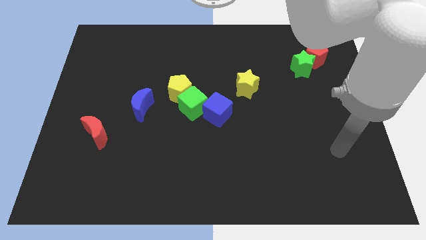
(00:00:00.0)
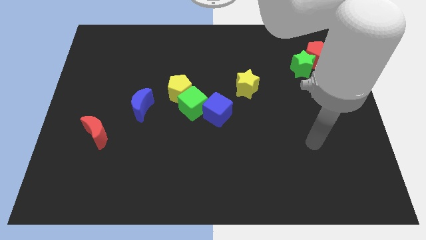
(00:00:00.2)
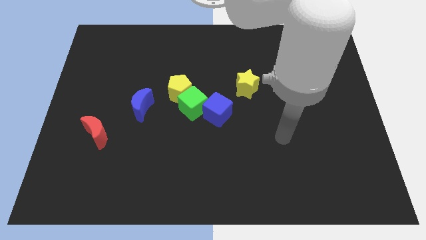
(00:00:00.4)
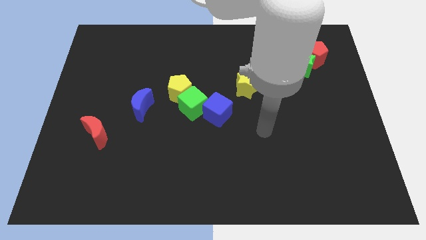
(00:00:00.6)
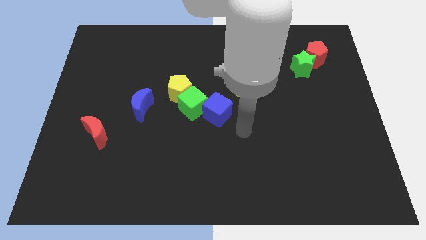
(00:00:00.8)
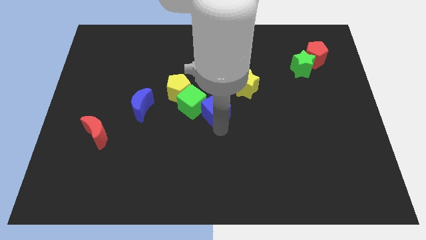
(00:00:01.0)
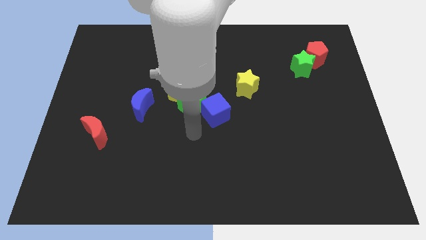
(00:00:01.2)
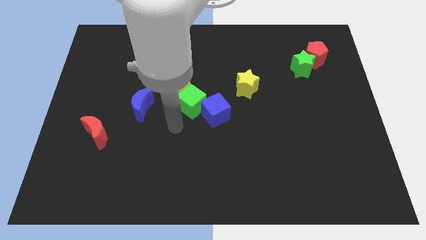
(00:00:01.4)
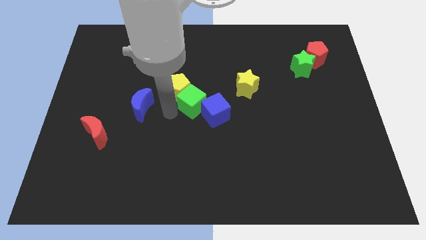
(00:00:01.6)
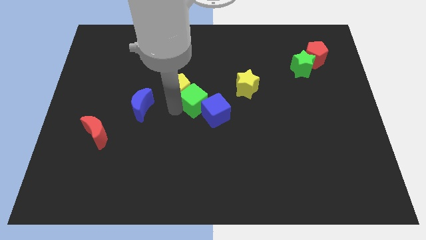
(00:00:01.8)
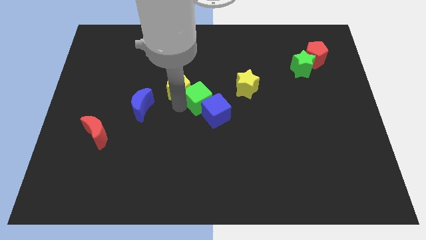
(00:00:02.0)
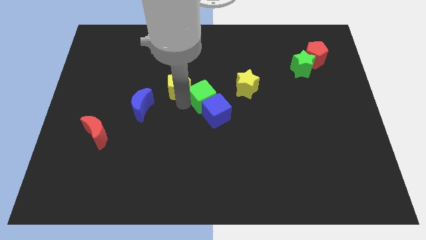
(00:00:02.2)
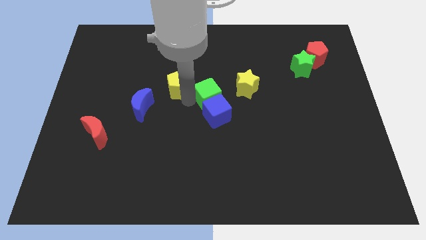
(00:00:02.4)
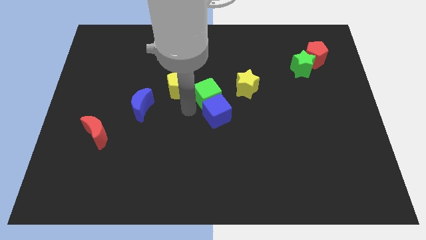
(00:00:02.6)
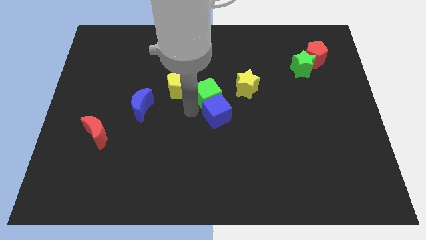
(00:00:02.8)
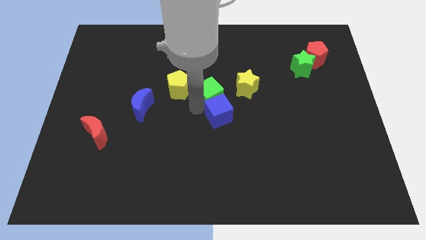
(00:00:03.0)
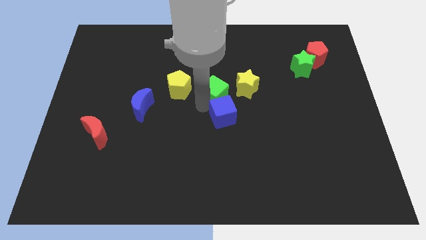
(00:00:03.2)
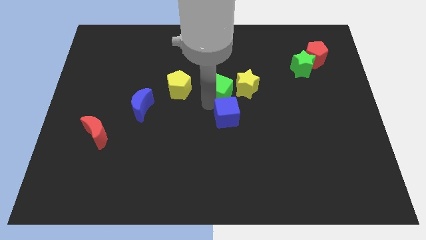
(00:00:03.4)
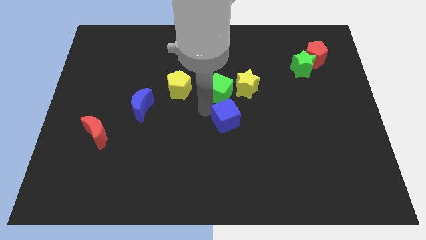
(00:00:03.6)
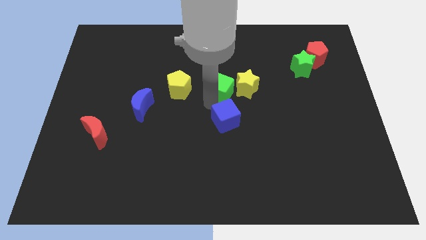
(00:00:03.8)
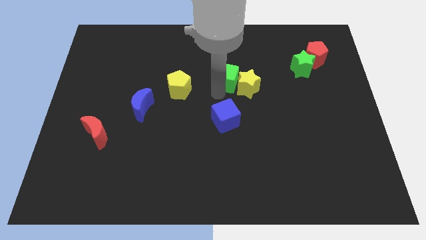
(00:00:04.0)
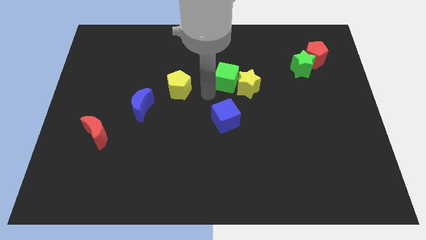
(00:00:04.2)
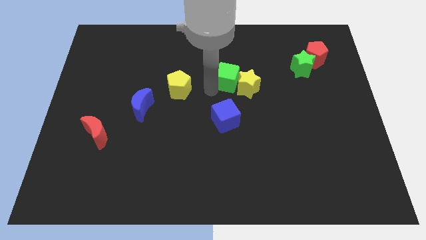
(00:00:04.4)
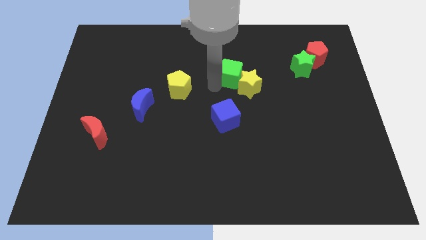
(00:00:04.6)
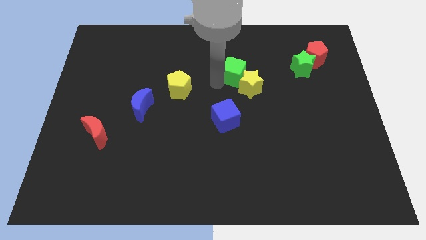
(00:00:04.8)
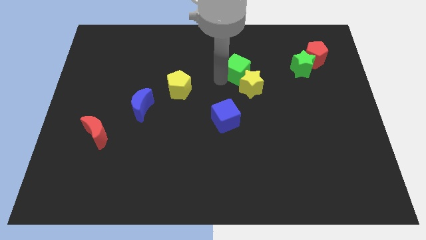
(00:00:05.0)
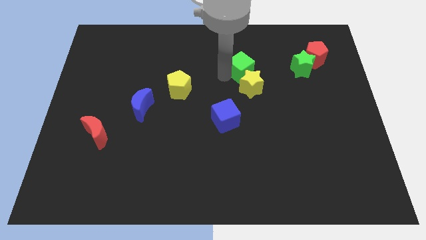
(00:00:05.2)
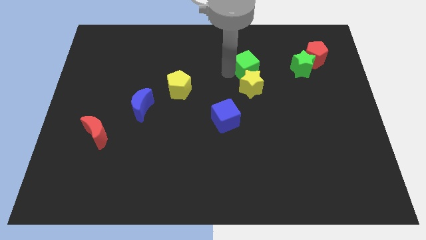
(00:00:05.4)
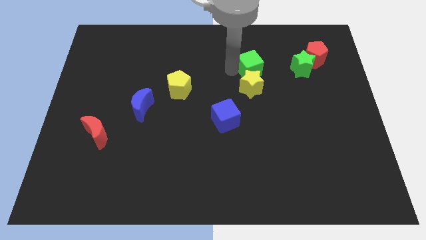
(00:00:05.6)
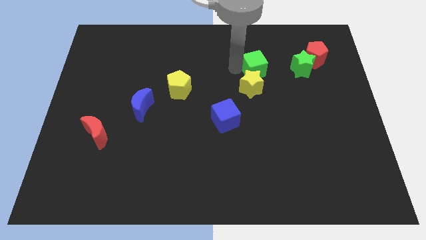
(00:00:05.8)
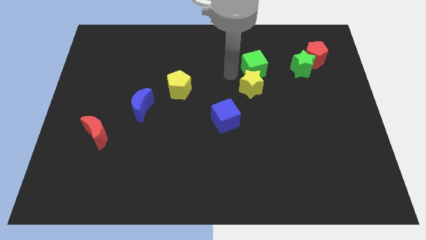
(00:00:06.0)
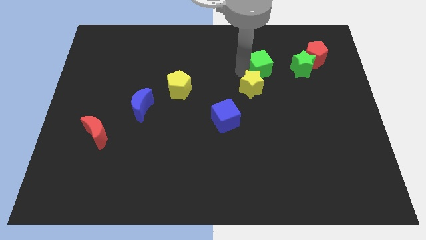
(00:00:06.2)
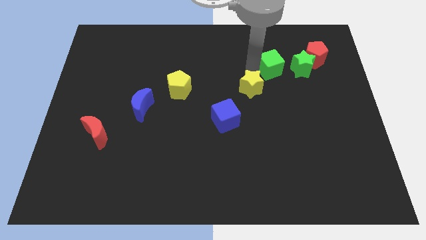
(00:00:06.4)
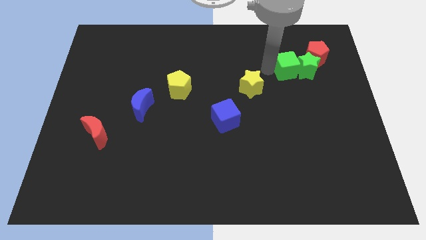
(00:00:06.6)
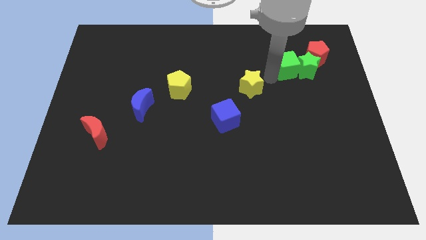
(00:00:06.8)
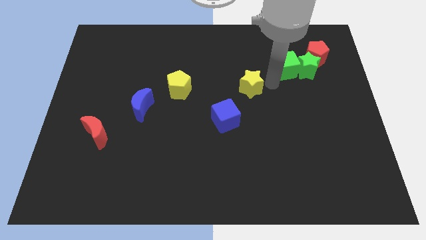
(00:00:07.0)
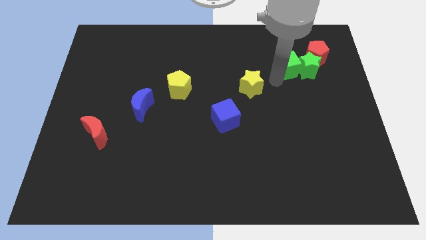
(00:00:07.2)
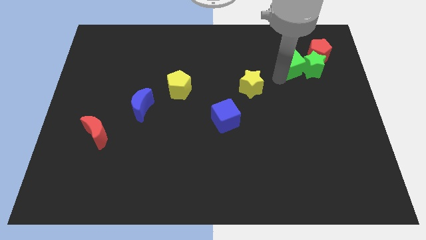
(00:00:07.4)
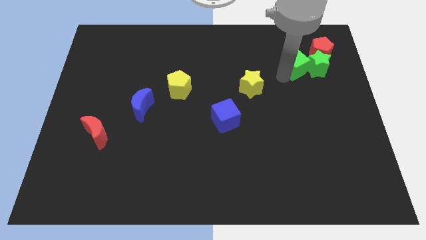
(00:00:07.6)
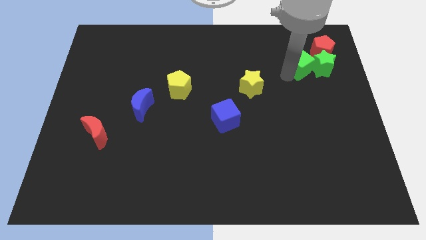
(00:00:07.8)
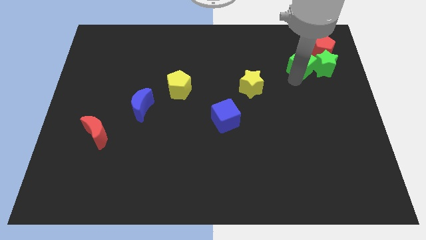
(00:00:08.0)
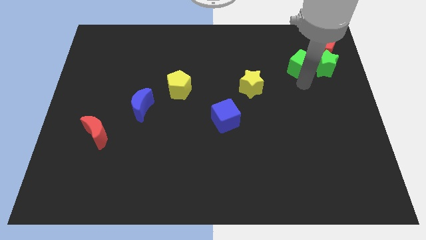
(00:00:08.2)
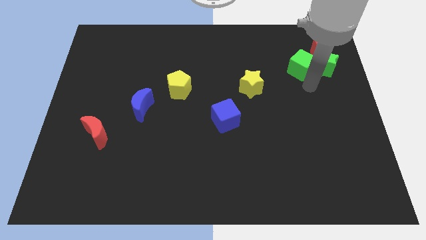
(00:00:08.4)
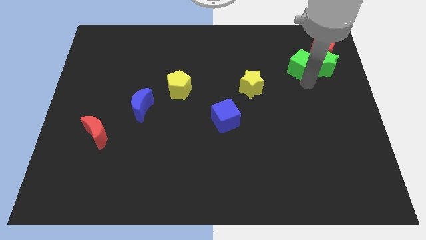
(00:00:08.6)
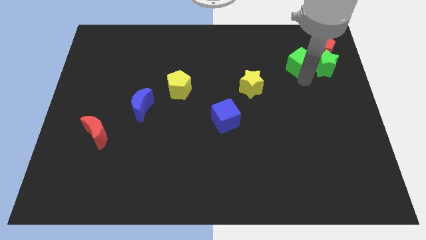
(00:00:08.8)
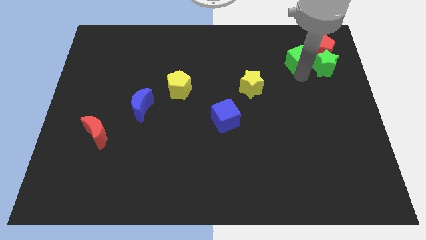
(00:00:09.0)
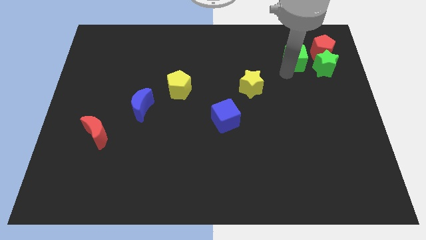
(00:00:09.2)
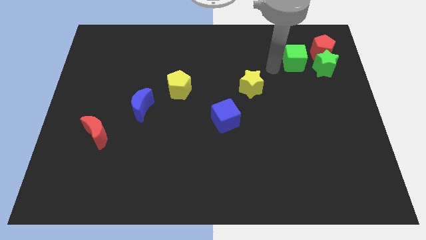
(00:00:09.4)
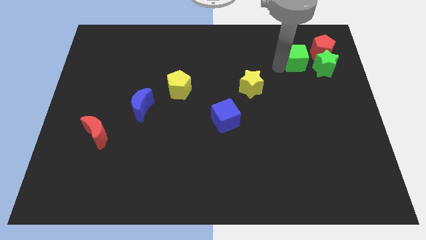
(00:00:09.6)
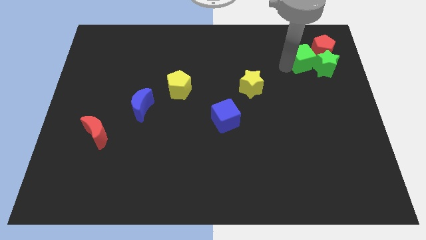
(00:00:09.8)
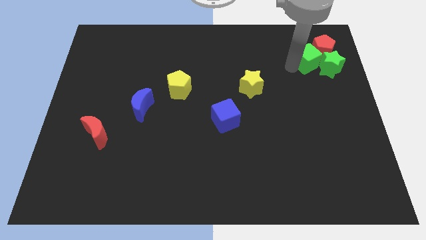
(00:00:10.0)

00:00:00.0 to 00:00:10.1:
move the green cube next to the red pentagon

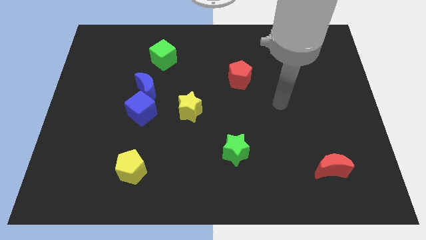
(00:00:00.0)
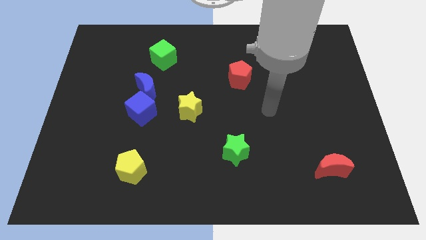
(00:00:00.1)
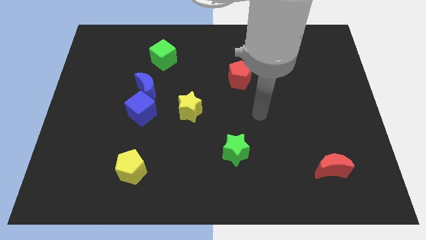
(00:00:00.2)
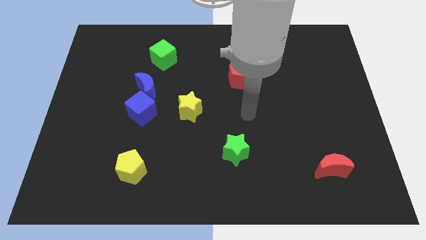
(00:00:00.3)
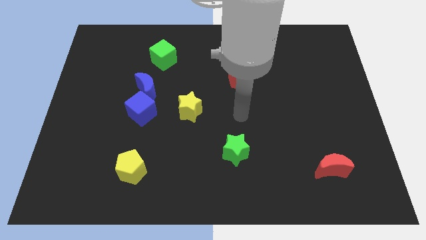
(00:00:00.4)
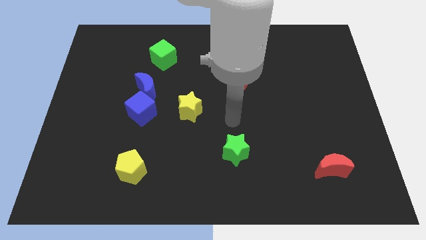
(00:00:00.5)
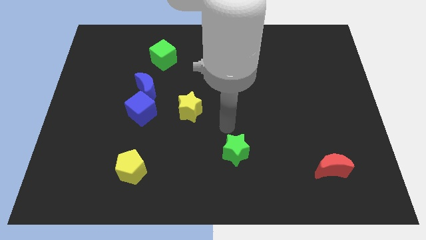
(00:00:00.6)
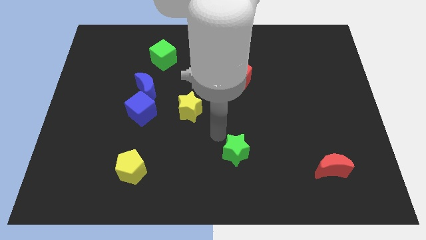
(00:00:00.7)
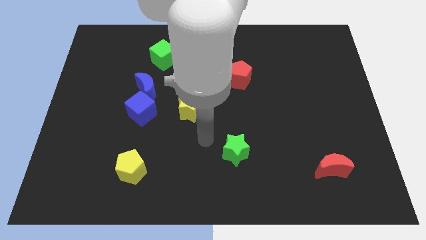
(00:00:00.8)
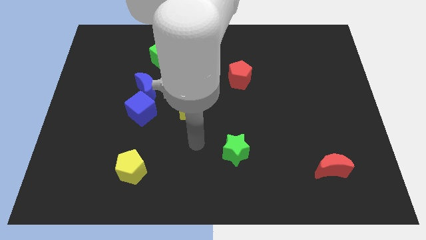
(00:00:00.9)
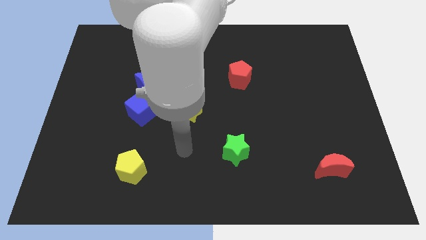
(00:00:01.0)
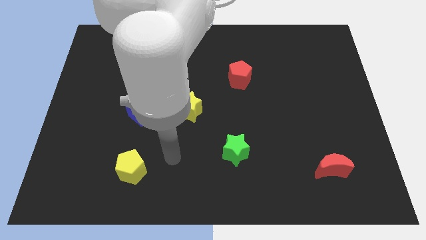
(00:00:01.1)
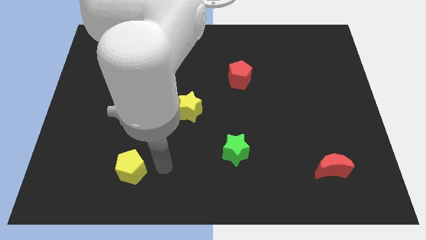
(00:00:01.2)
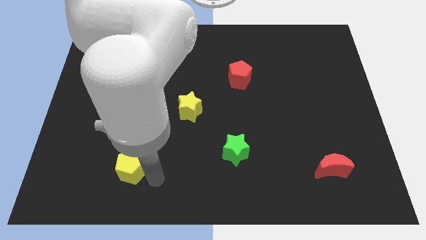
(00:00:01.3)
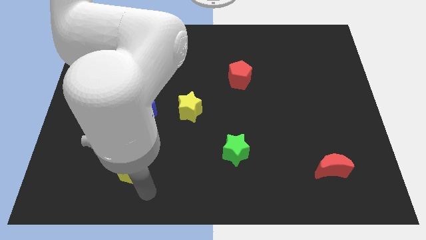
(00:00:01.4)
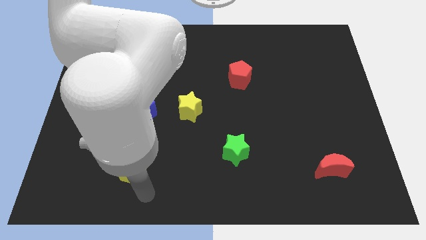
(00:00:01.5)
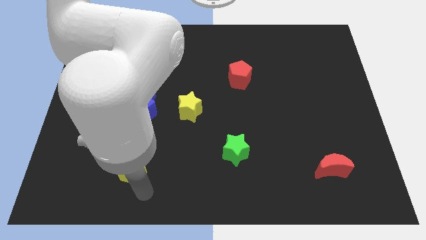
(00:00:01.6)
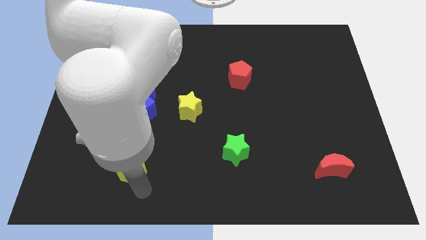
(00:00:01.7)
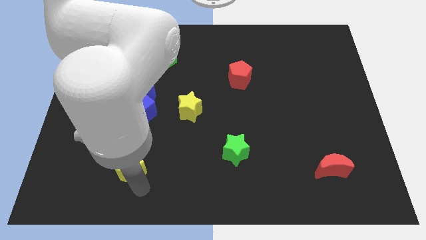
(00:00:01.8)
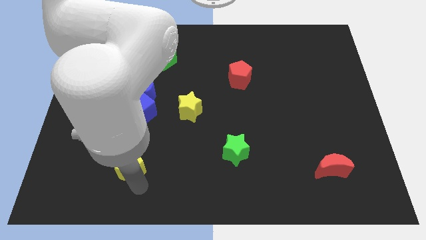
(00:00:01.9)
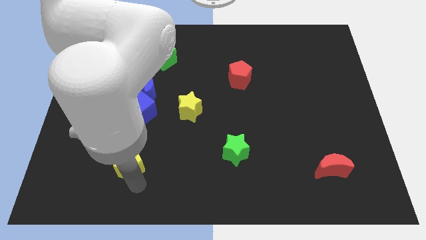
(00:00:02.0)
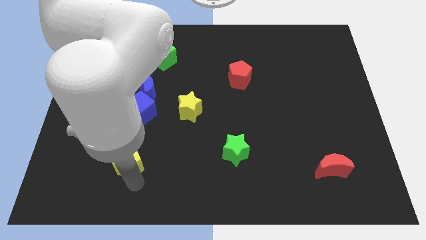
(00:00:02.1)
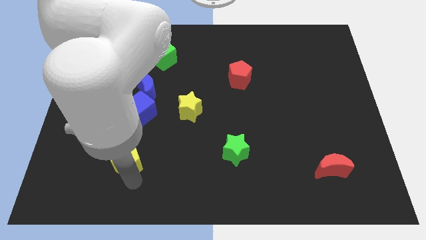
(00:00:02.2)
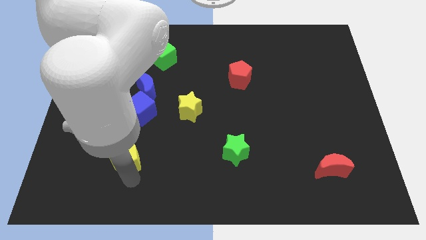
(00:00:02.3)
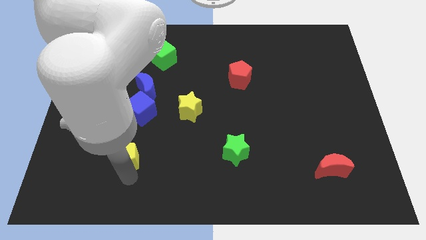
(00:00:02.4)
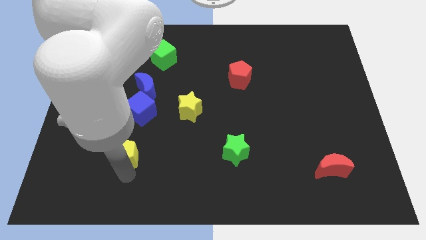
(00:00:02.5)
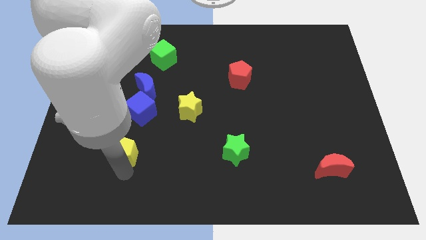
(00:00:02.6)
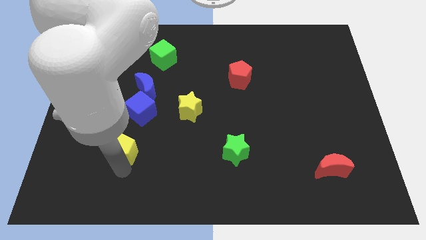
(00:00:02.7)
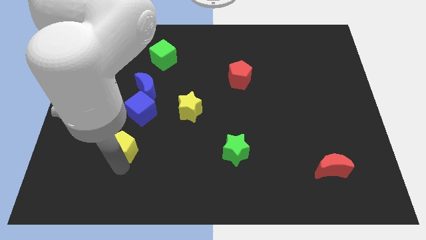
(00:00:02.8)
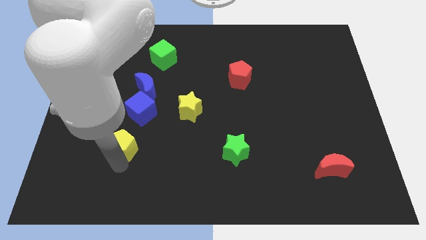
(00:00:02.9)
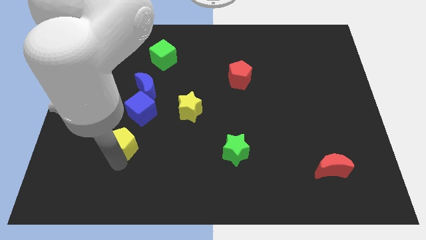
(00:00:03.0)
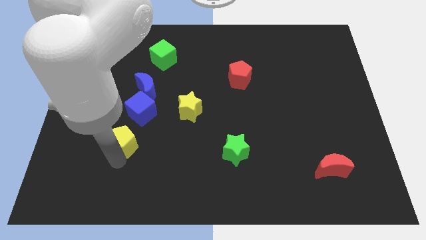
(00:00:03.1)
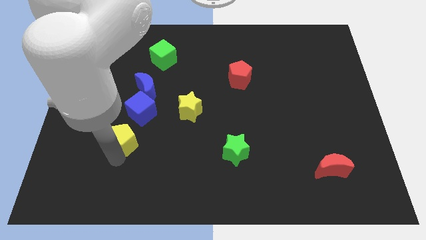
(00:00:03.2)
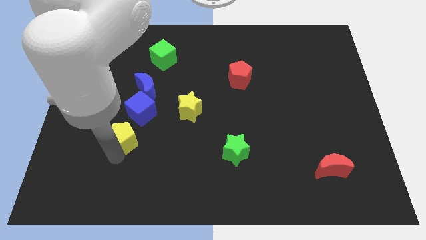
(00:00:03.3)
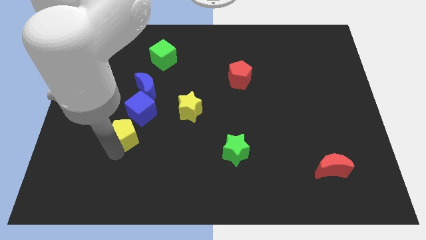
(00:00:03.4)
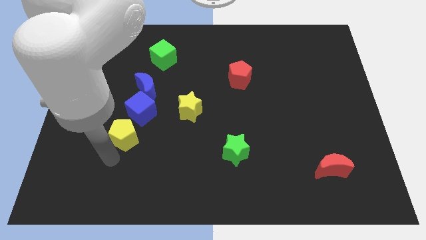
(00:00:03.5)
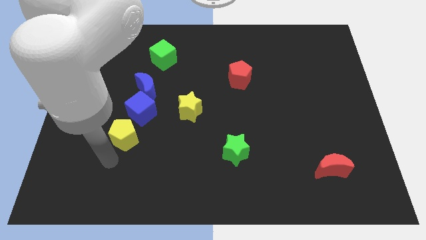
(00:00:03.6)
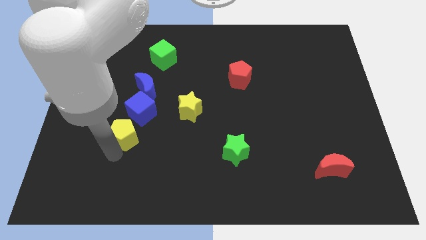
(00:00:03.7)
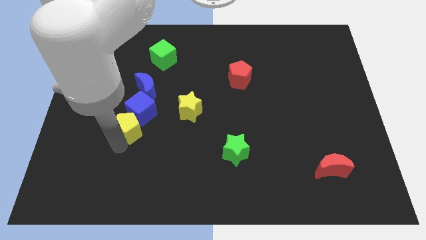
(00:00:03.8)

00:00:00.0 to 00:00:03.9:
move the yellow pentagon next to the blue cube
